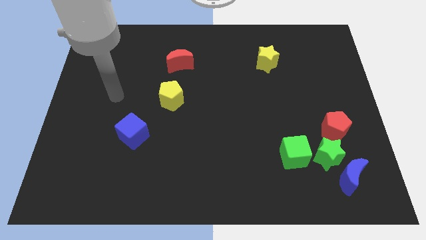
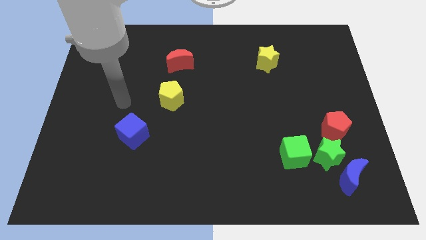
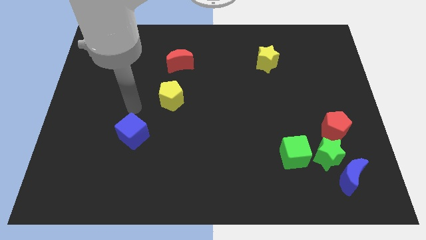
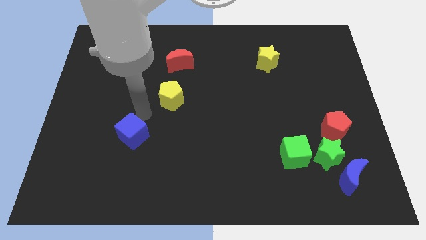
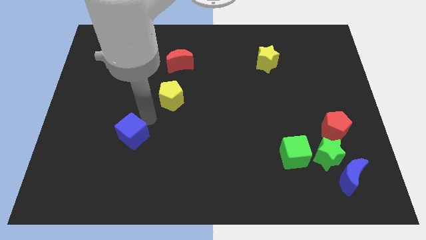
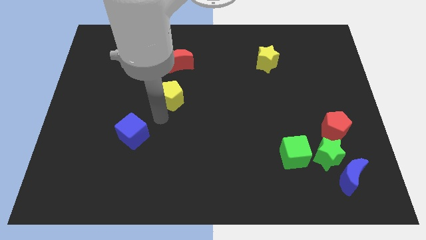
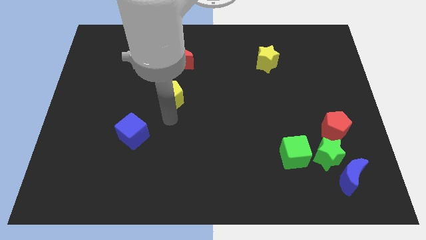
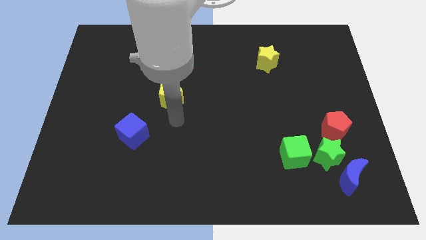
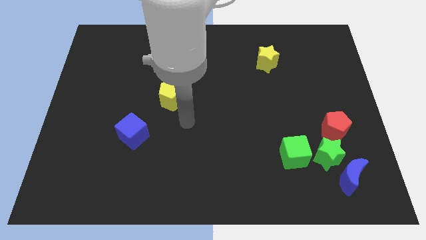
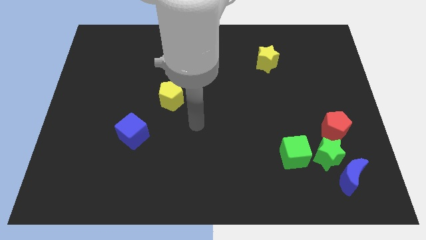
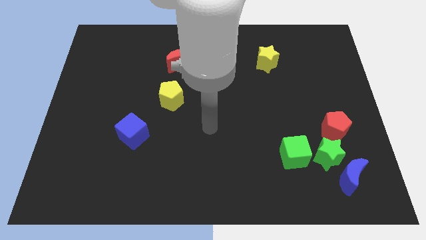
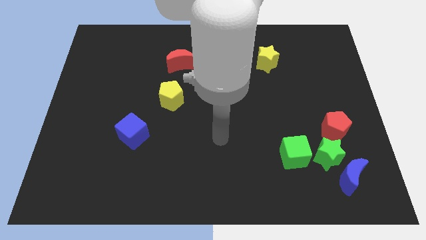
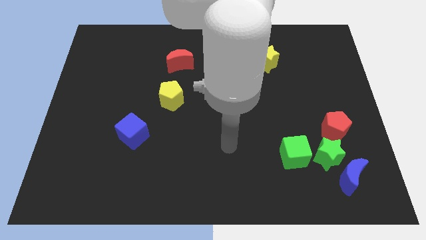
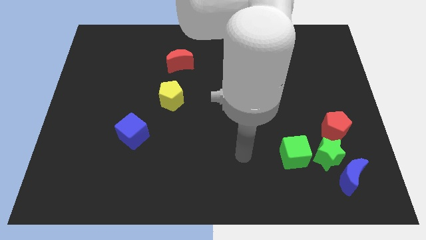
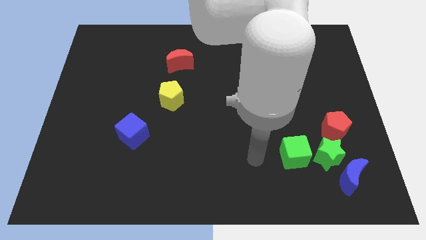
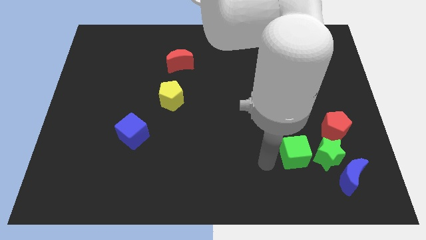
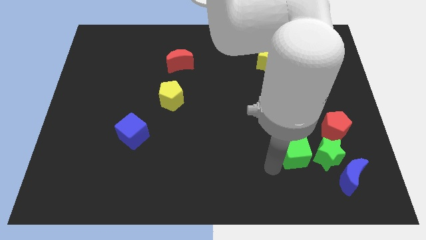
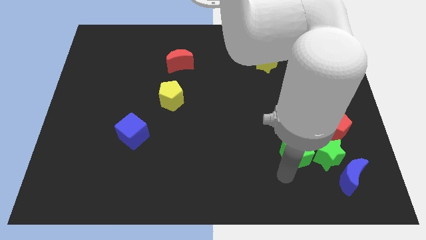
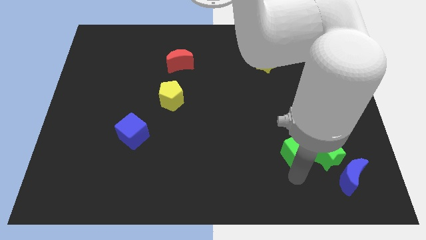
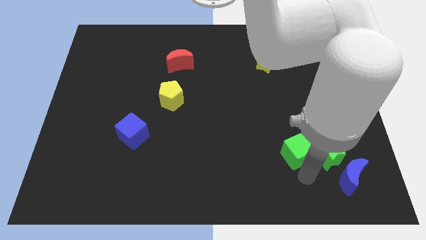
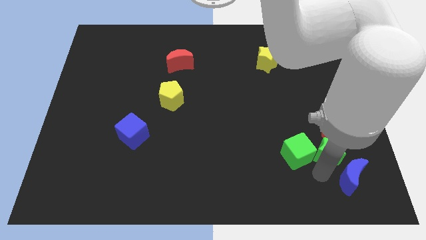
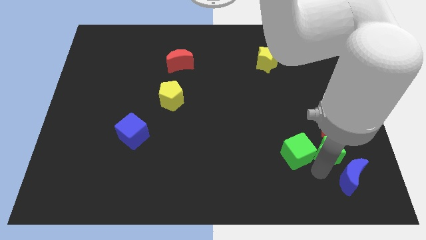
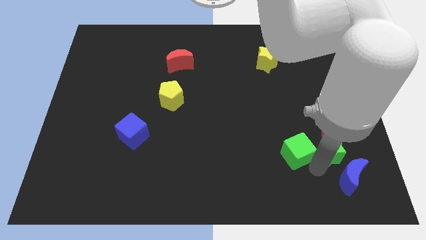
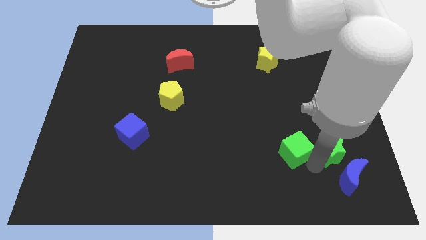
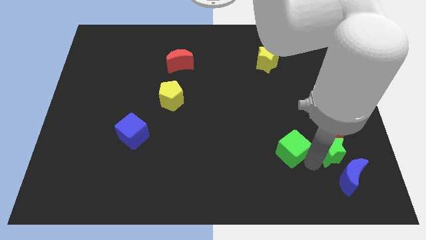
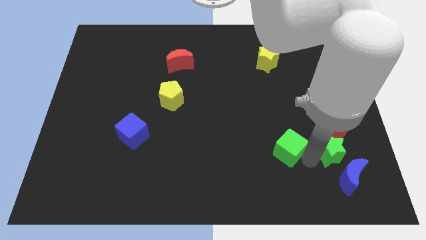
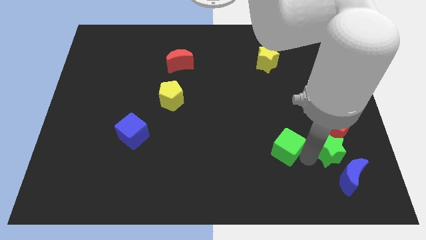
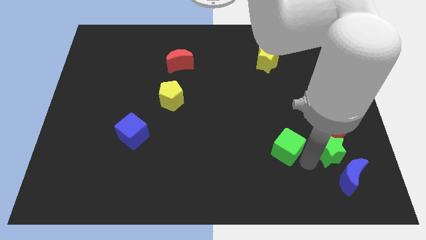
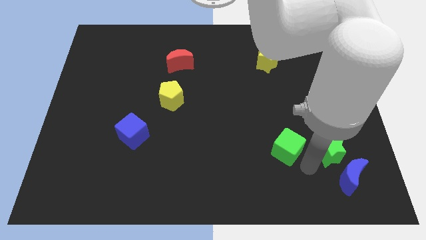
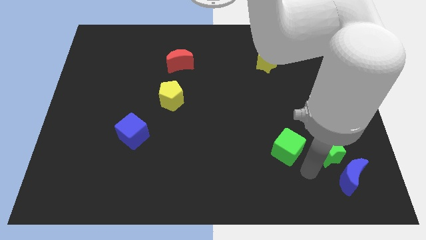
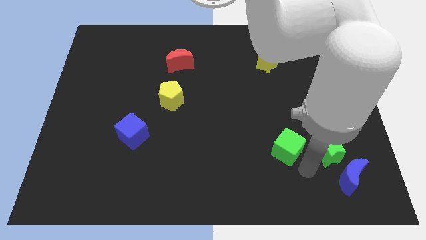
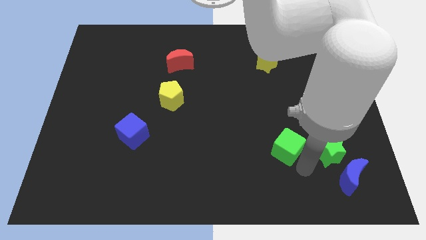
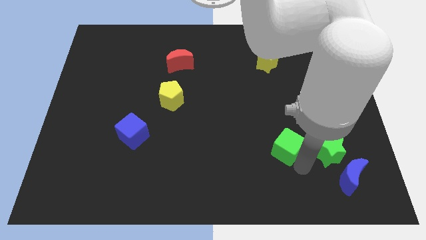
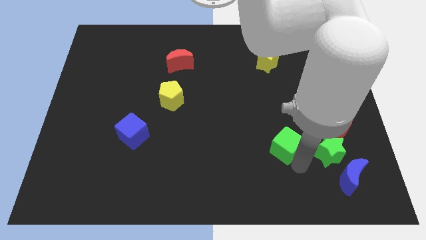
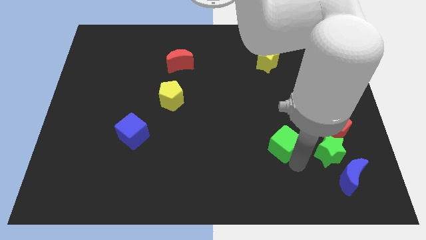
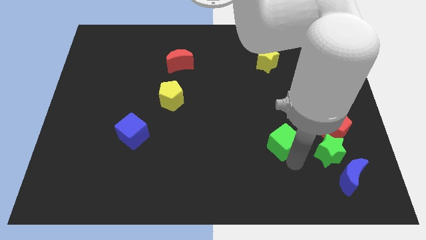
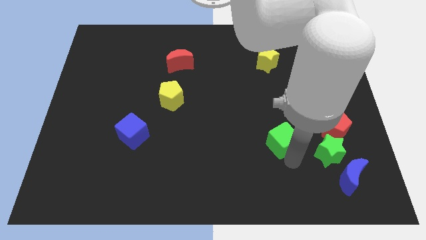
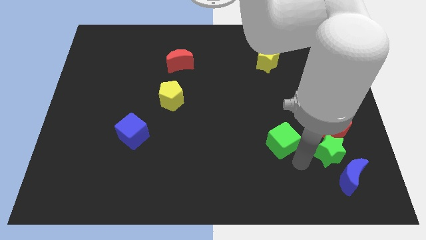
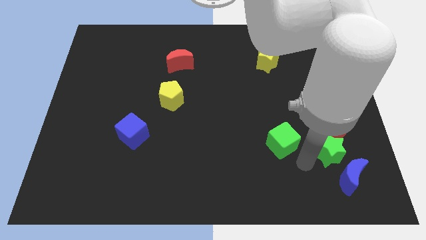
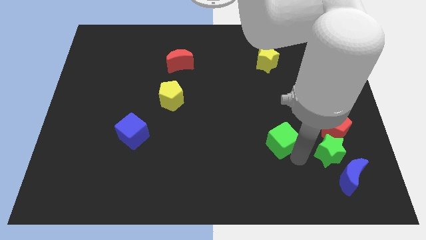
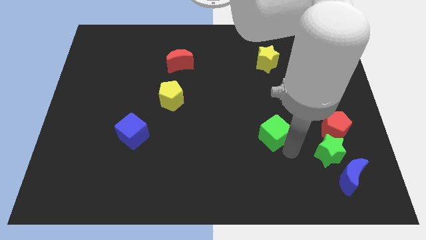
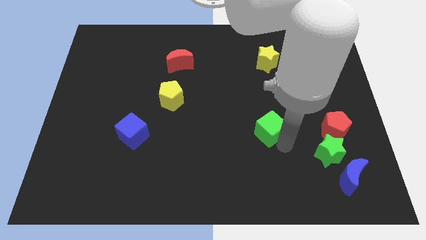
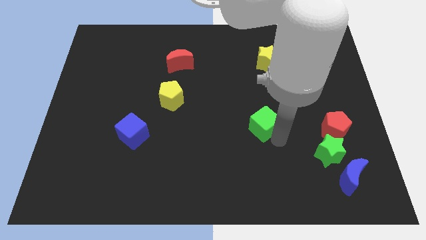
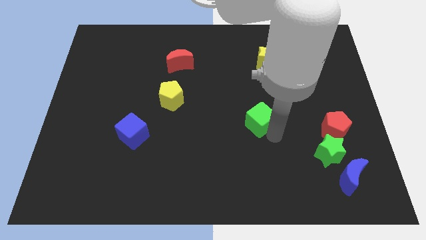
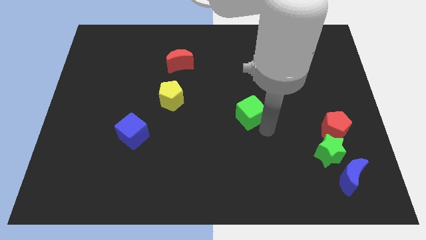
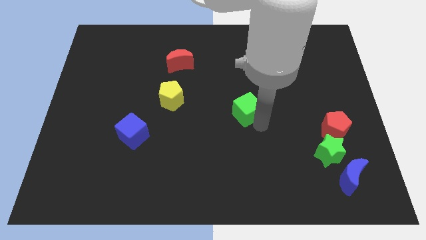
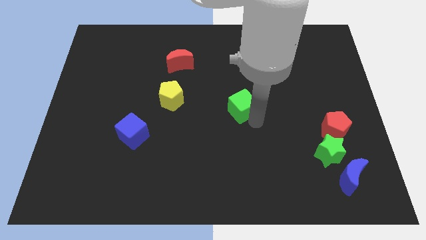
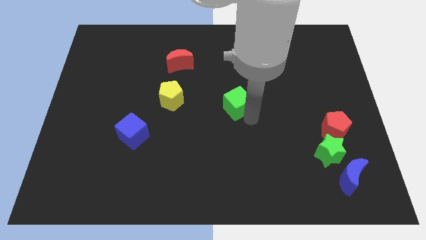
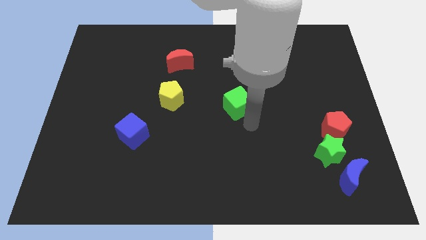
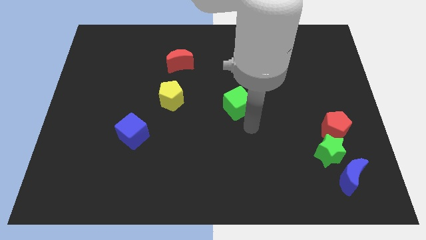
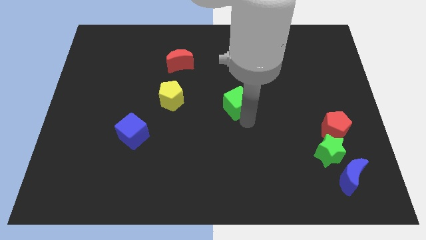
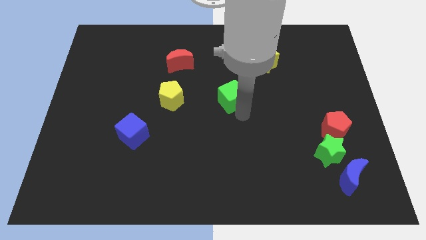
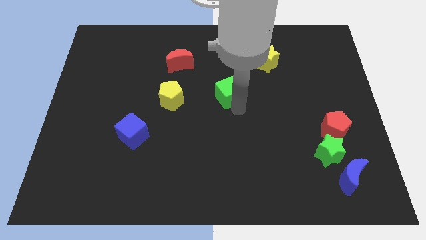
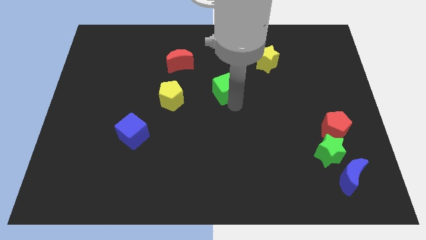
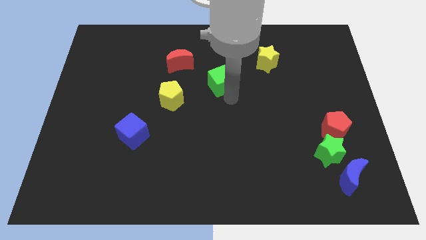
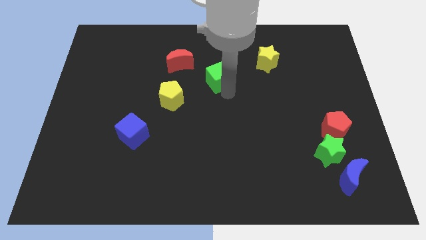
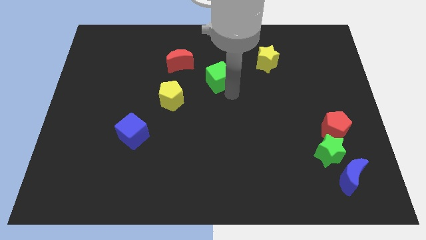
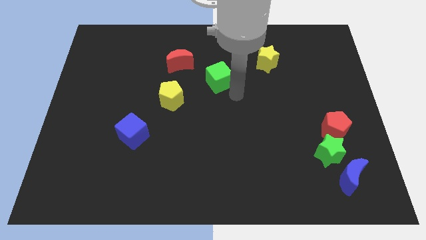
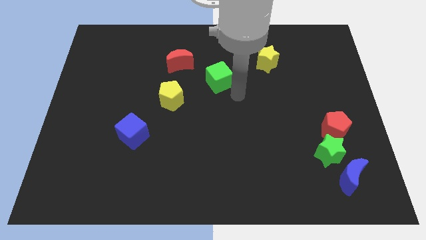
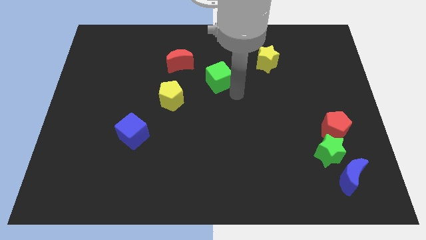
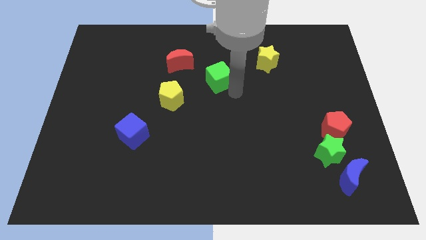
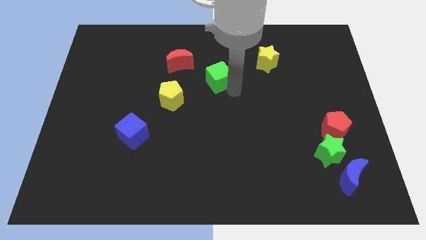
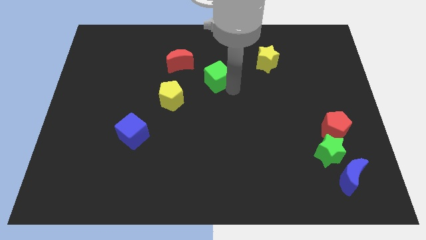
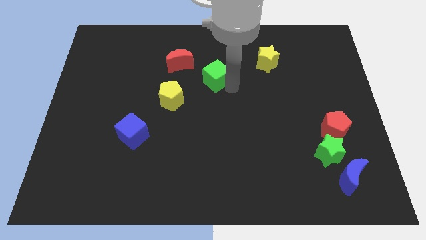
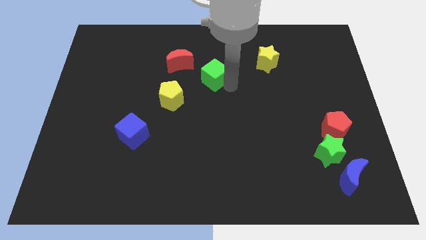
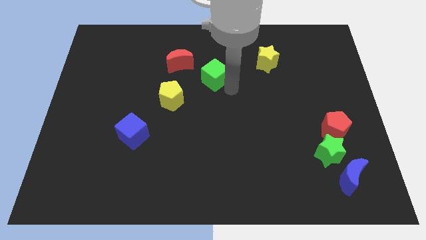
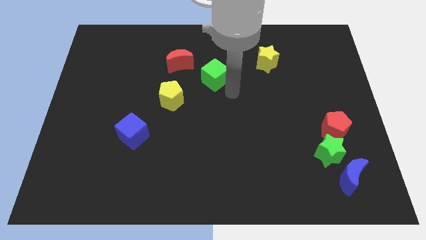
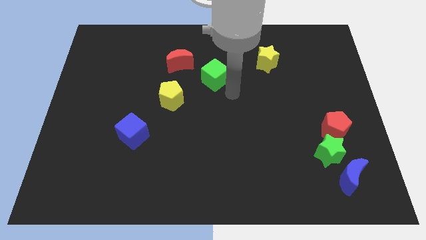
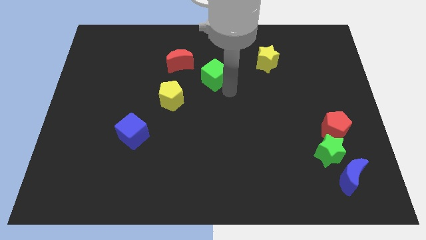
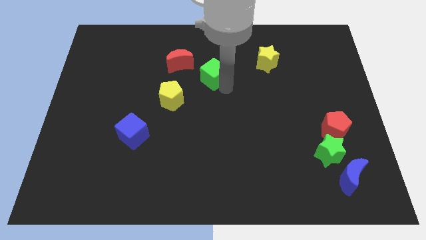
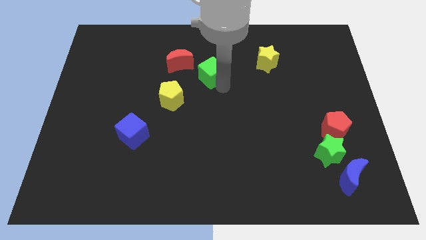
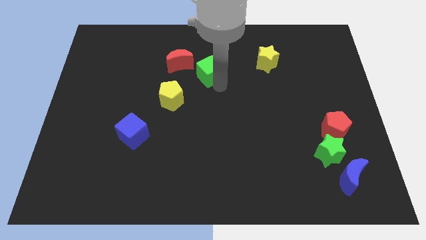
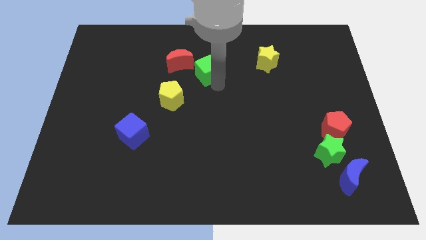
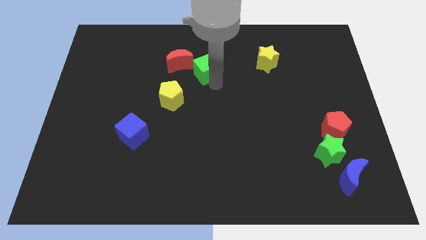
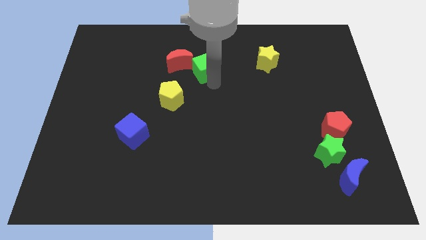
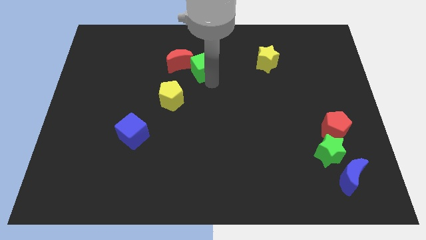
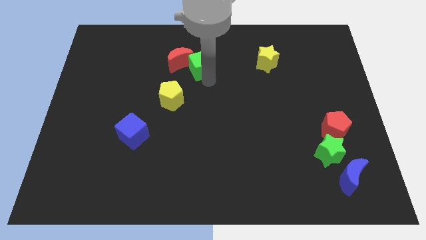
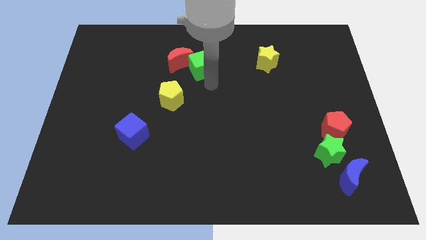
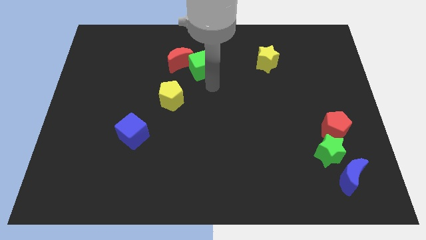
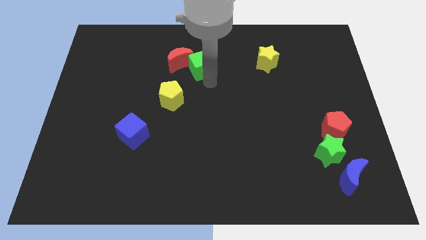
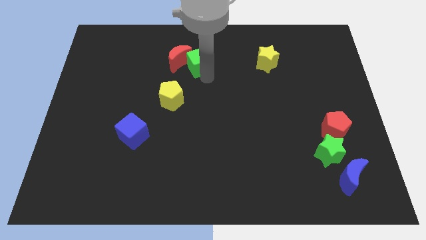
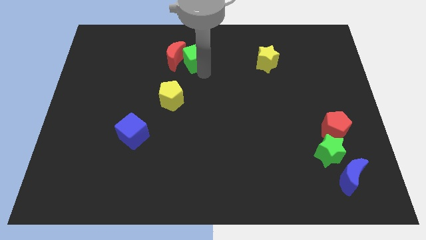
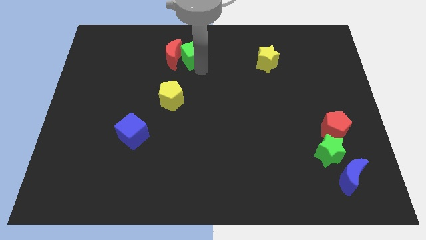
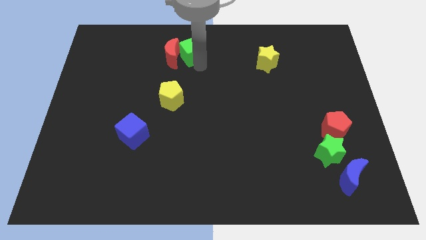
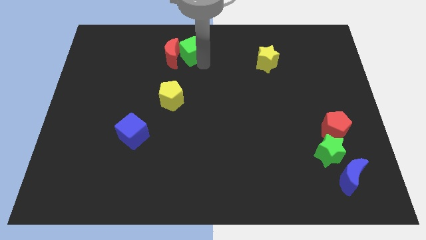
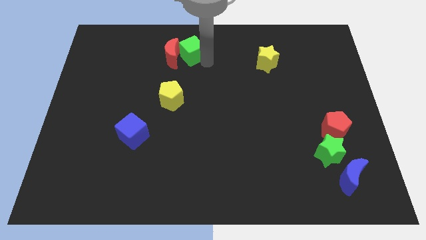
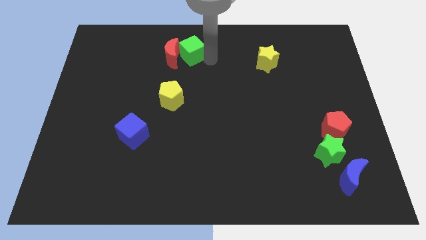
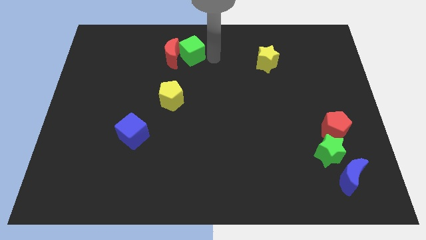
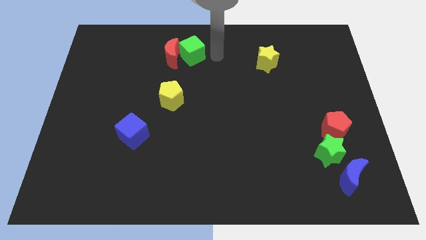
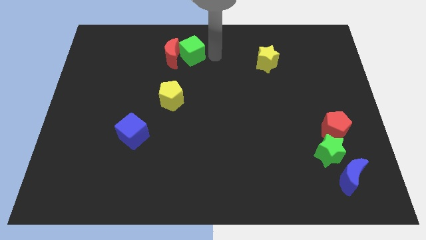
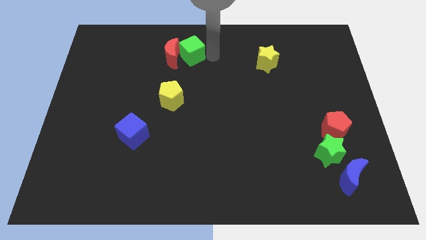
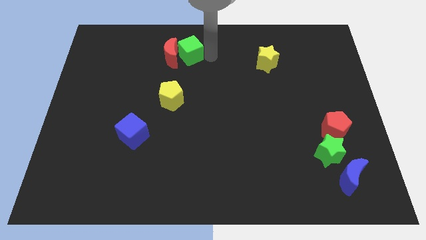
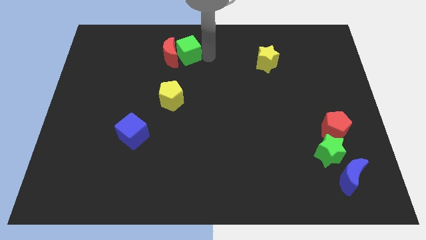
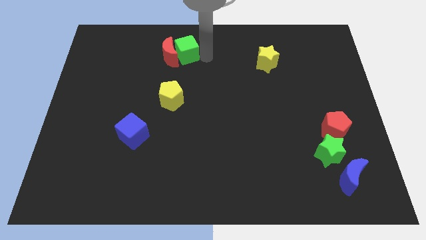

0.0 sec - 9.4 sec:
slide the green cube above the yellow pentagon
